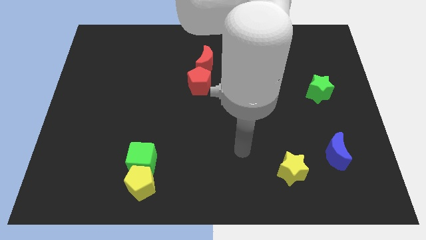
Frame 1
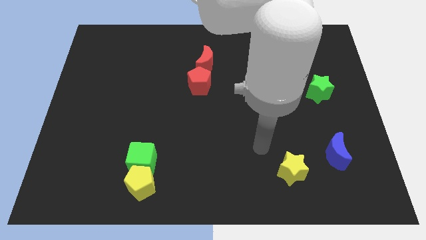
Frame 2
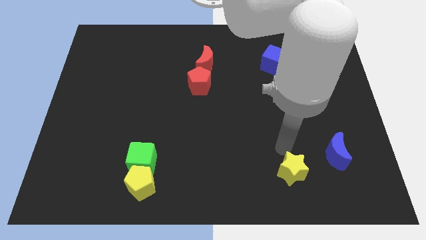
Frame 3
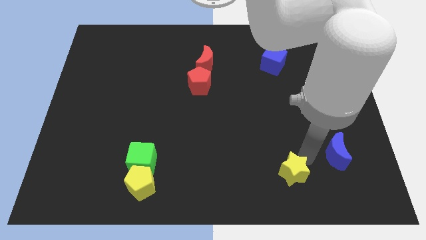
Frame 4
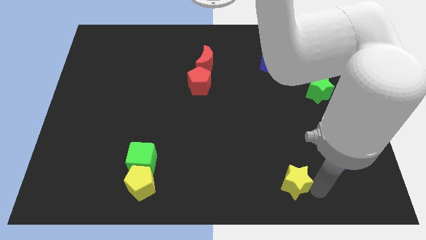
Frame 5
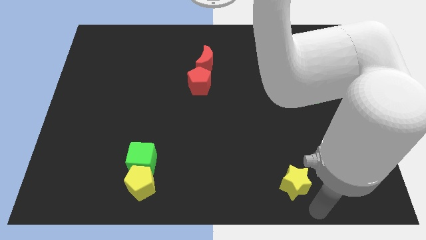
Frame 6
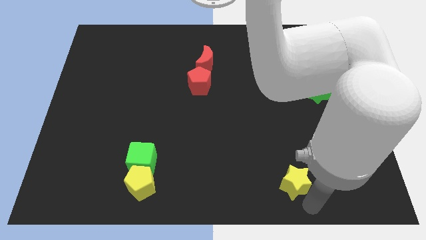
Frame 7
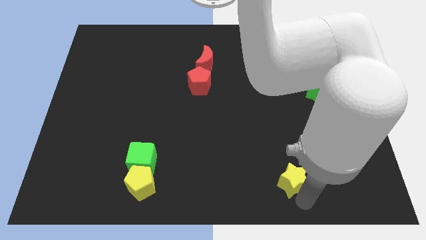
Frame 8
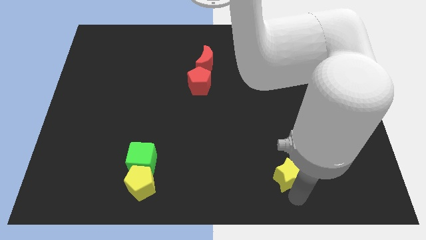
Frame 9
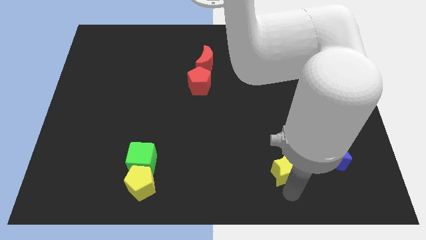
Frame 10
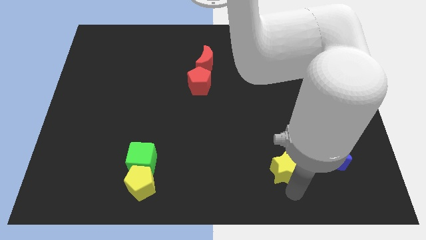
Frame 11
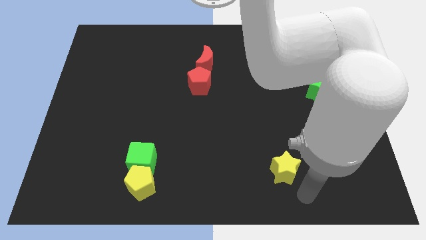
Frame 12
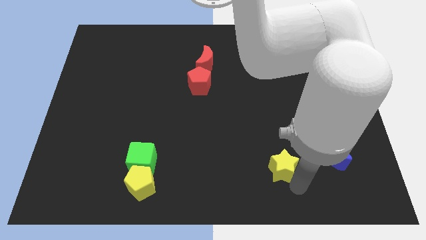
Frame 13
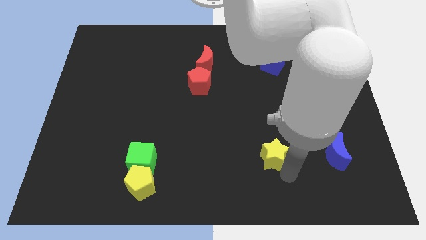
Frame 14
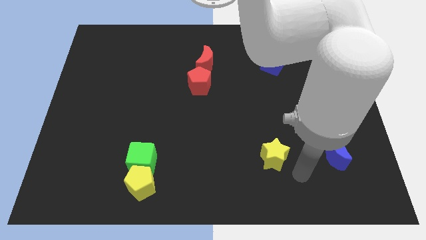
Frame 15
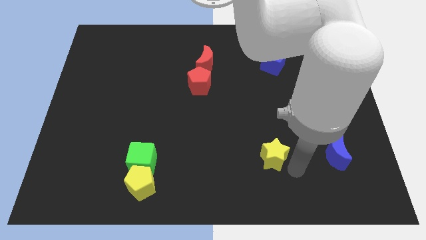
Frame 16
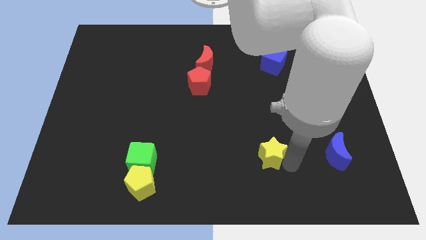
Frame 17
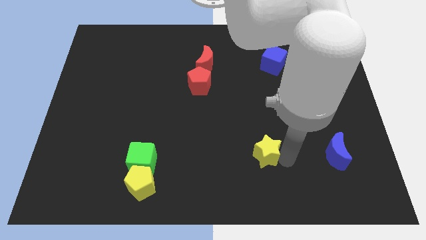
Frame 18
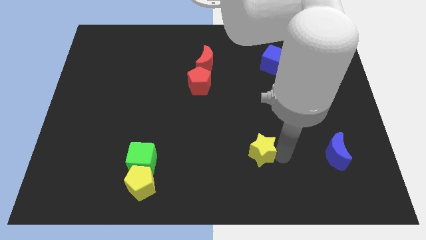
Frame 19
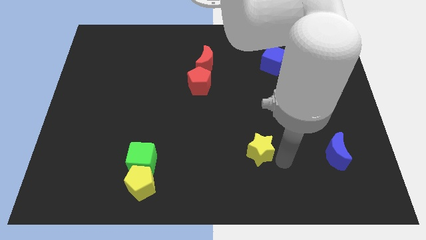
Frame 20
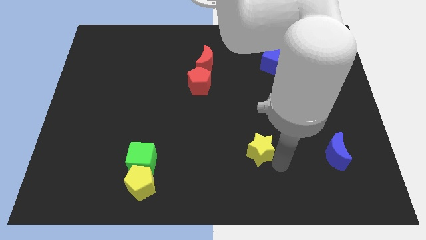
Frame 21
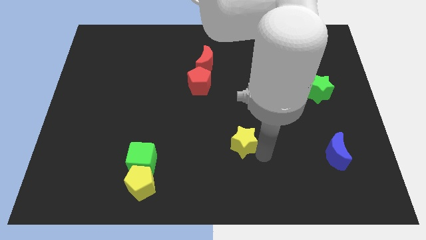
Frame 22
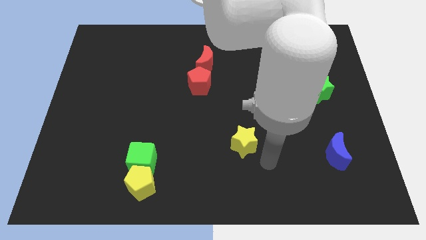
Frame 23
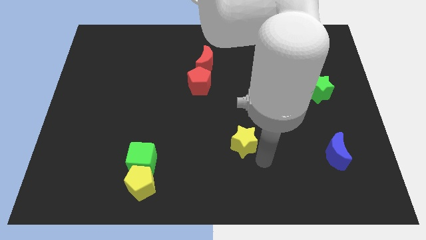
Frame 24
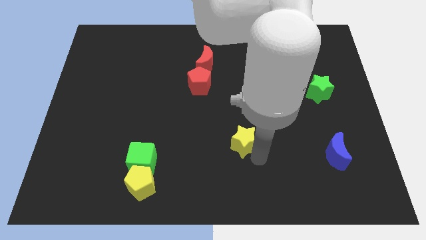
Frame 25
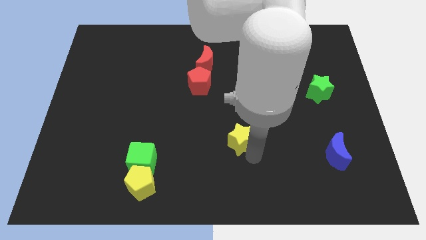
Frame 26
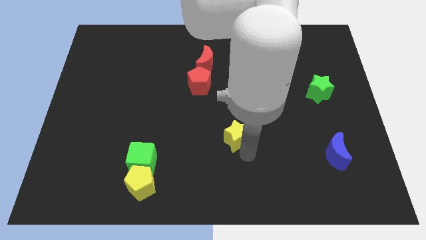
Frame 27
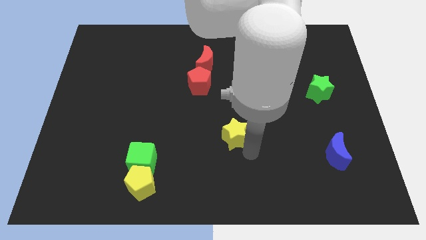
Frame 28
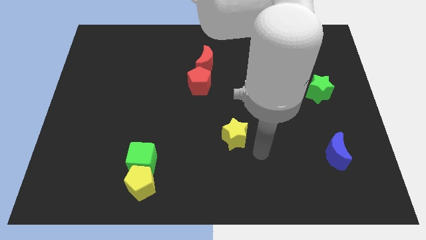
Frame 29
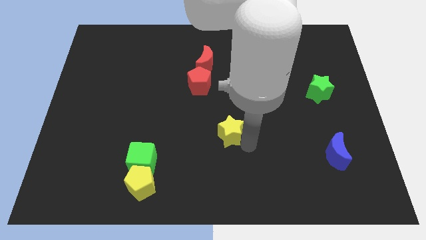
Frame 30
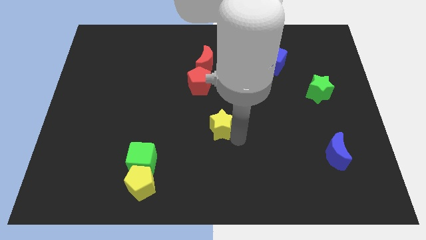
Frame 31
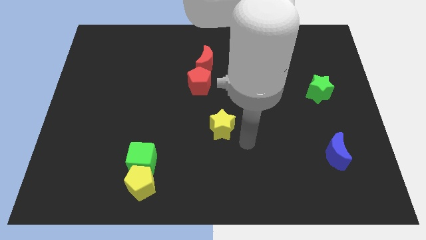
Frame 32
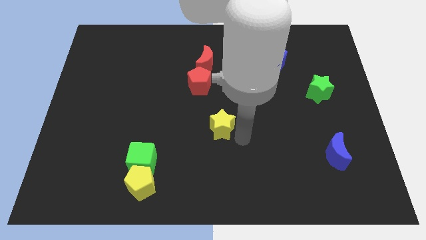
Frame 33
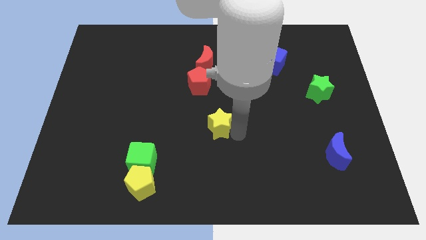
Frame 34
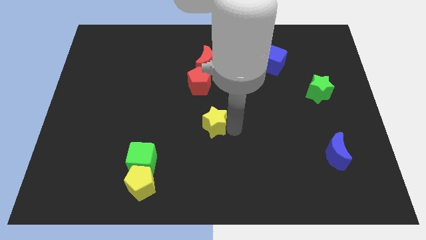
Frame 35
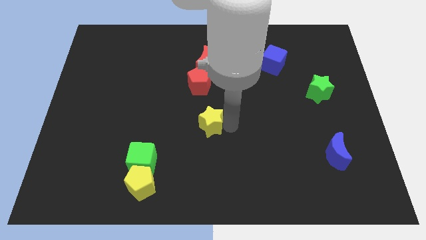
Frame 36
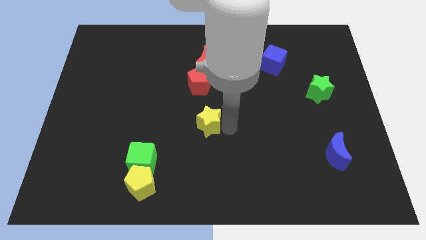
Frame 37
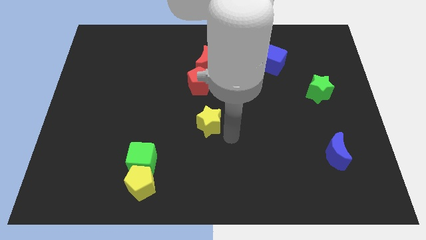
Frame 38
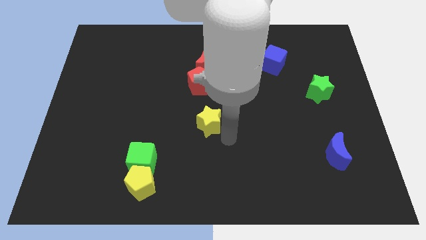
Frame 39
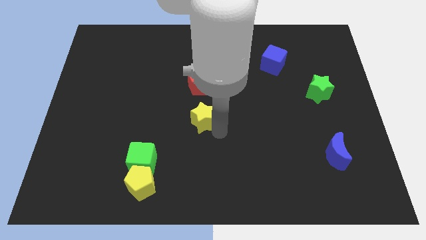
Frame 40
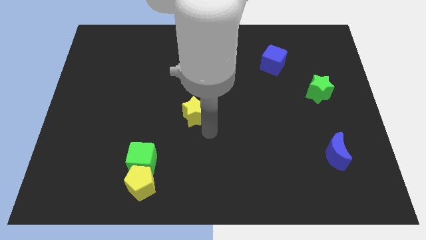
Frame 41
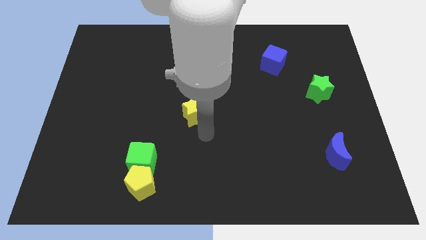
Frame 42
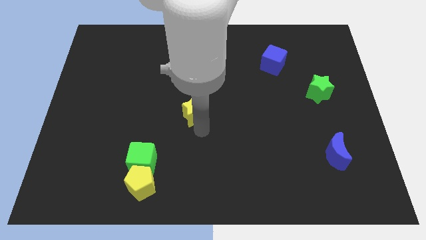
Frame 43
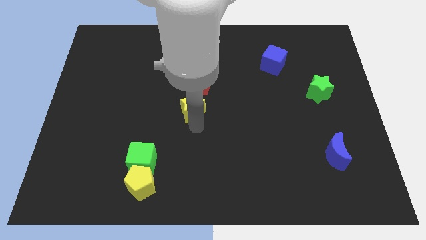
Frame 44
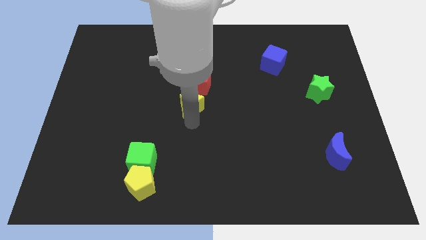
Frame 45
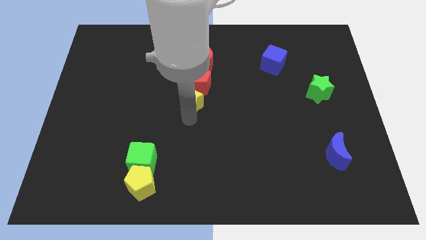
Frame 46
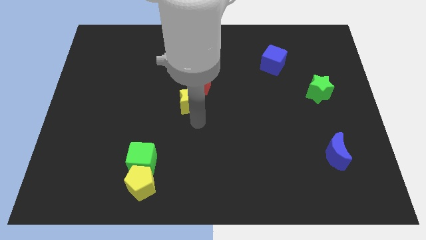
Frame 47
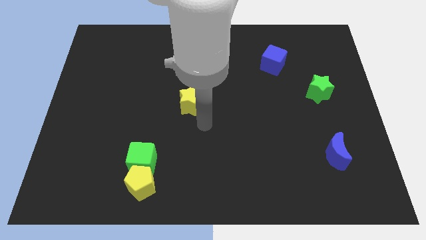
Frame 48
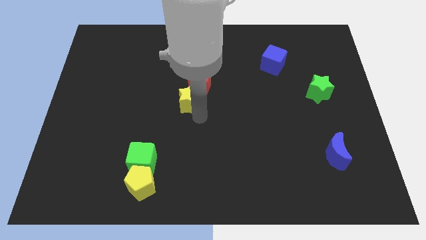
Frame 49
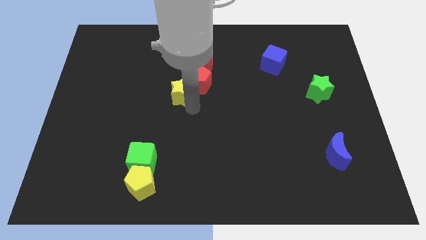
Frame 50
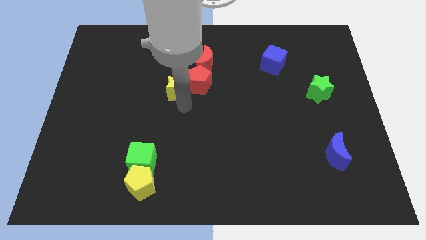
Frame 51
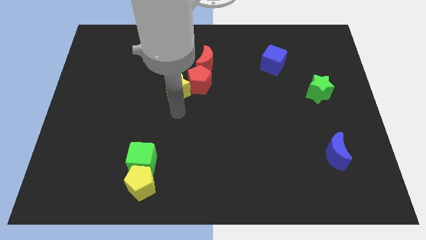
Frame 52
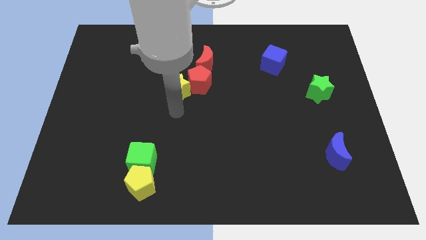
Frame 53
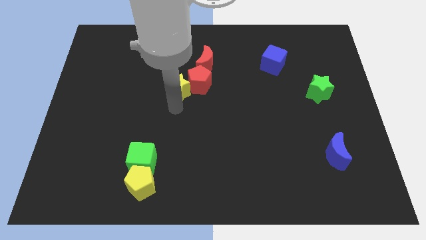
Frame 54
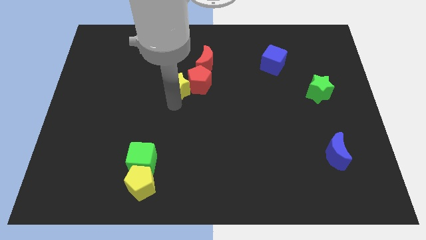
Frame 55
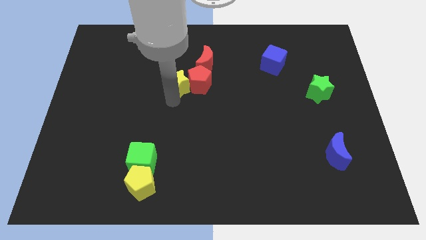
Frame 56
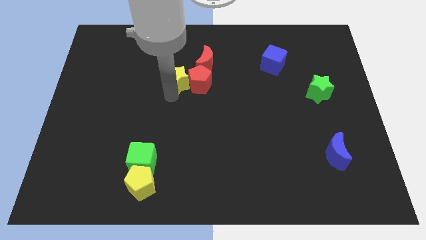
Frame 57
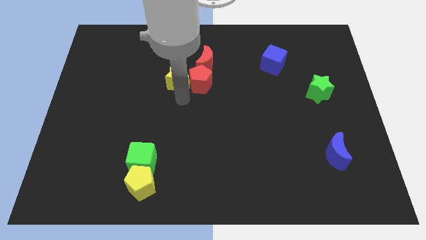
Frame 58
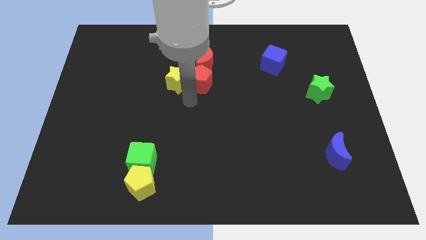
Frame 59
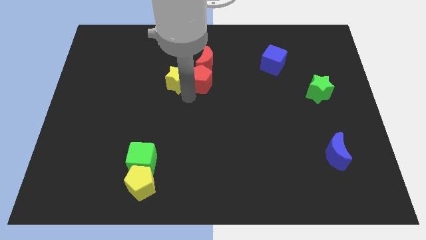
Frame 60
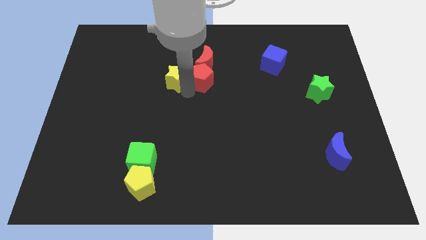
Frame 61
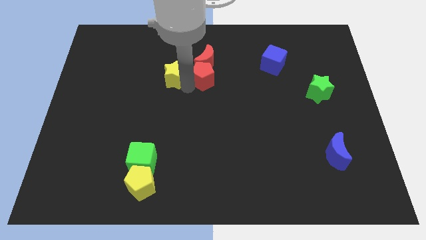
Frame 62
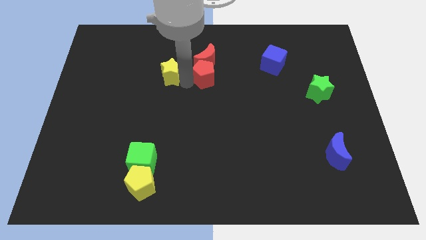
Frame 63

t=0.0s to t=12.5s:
move the yellow star to the left side of the red moon

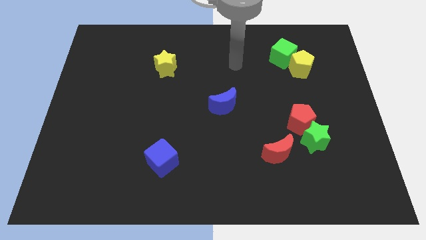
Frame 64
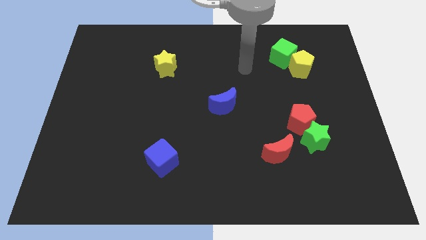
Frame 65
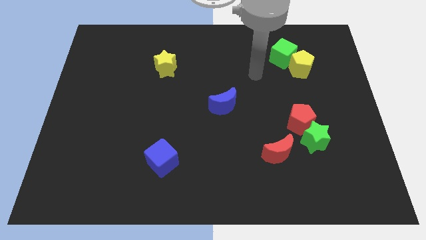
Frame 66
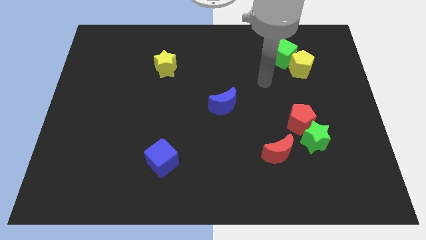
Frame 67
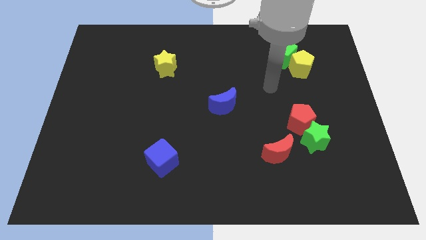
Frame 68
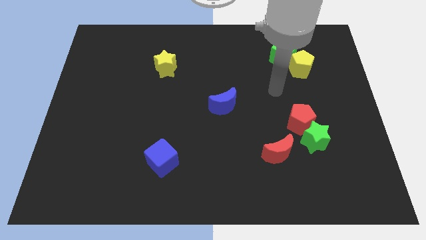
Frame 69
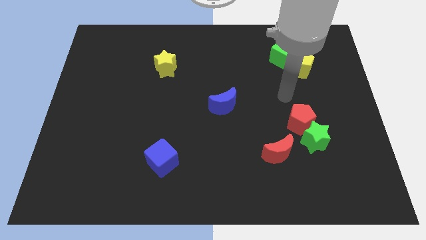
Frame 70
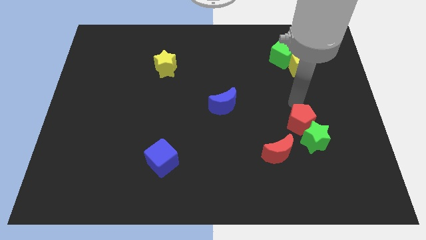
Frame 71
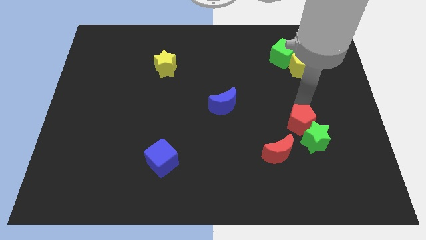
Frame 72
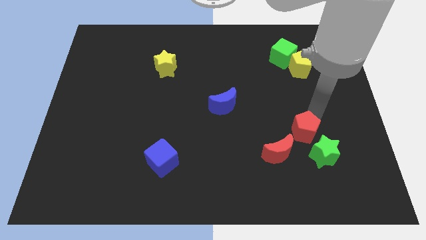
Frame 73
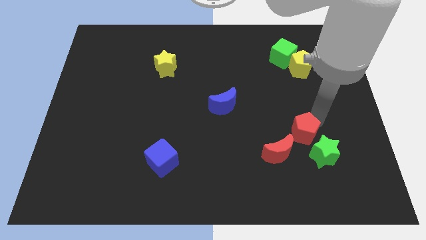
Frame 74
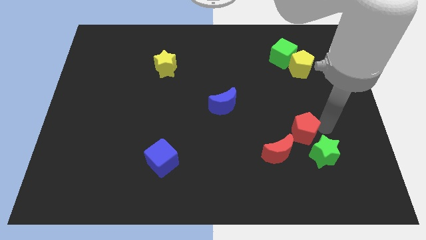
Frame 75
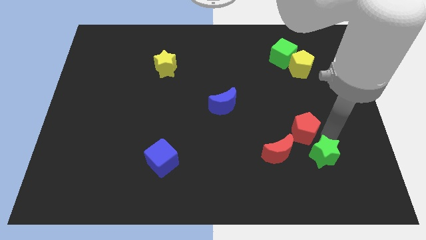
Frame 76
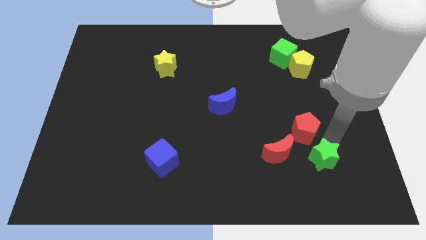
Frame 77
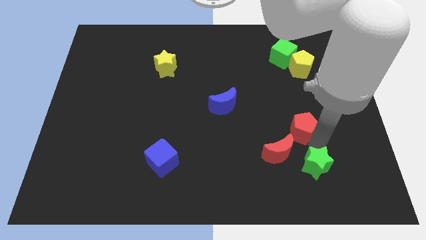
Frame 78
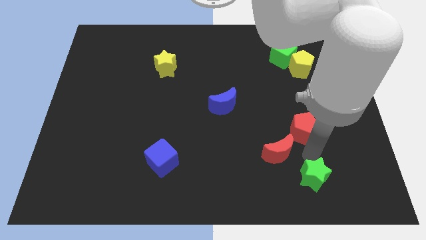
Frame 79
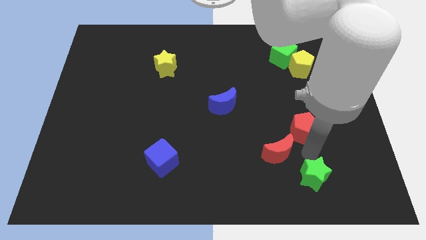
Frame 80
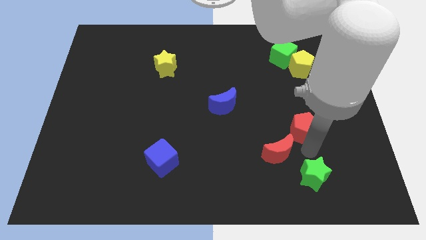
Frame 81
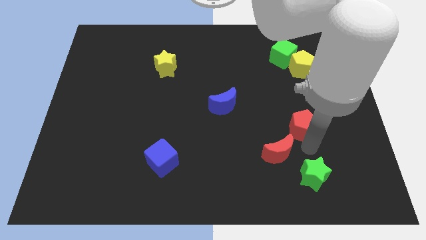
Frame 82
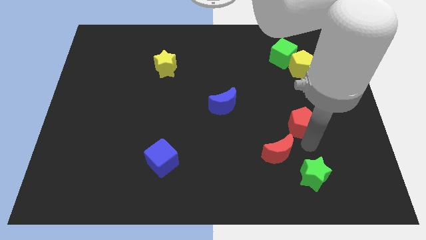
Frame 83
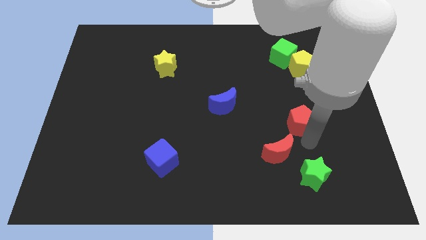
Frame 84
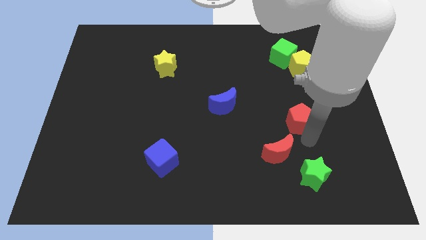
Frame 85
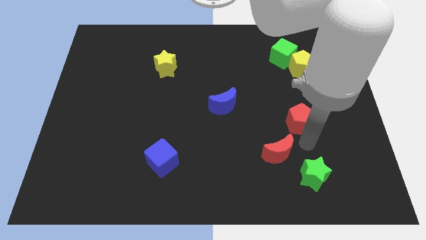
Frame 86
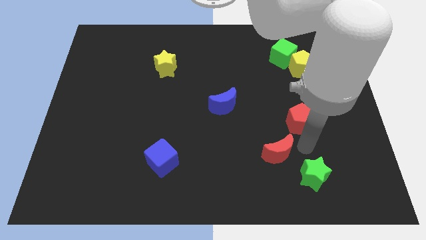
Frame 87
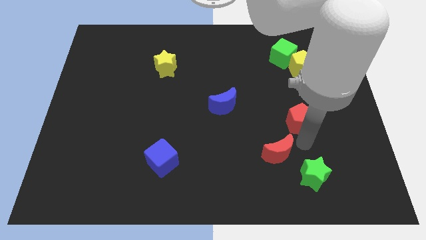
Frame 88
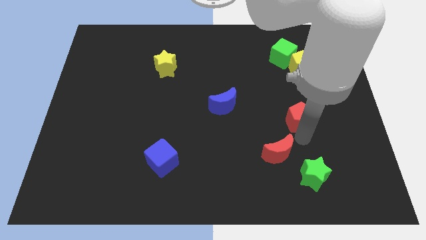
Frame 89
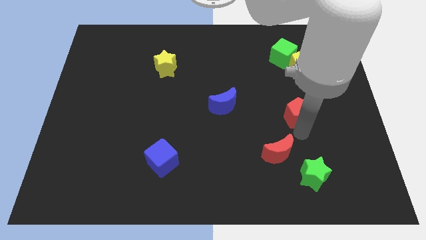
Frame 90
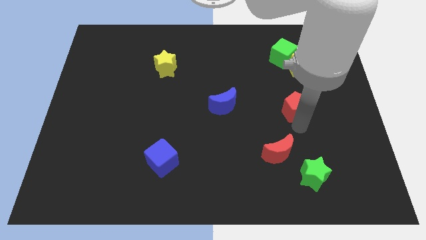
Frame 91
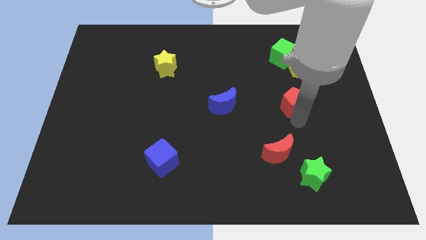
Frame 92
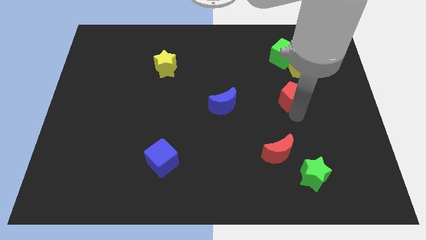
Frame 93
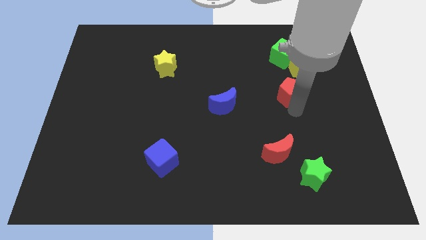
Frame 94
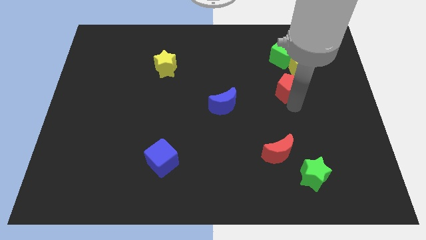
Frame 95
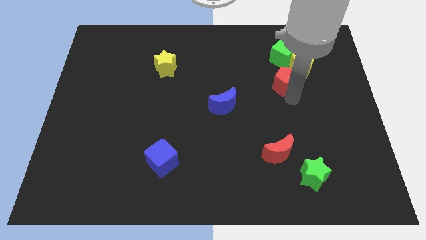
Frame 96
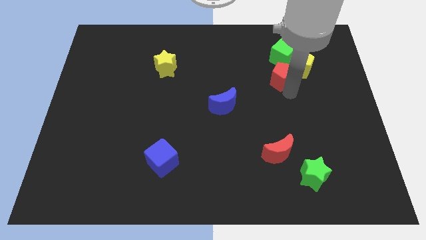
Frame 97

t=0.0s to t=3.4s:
move the red pentagon to the bottom left of the green cube
